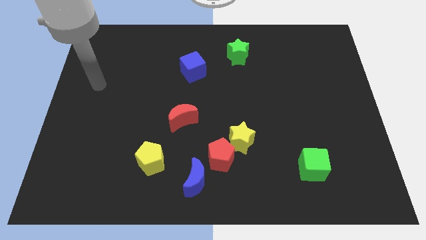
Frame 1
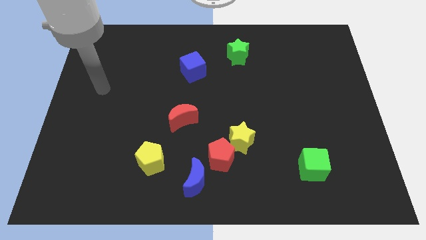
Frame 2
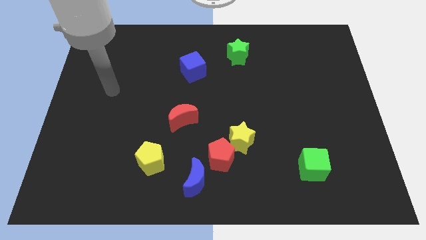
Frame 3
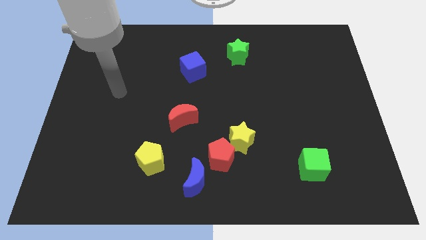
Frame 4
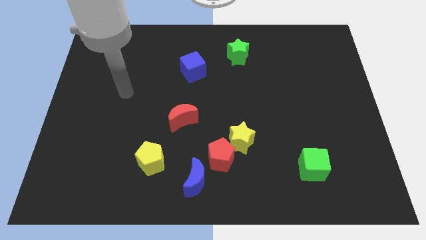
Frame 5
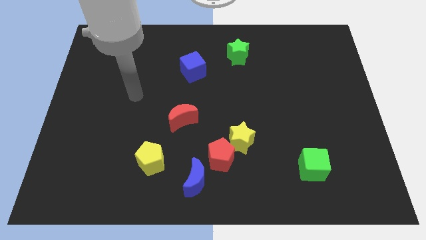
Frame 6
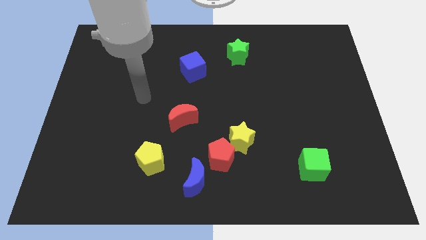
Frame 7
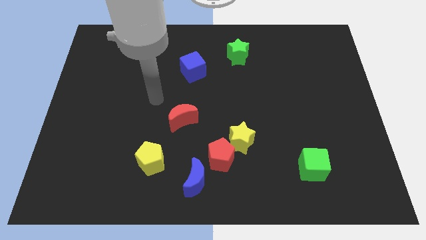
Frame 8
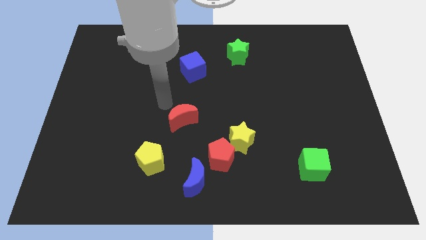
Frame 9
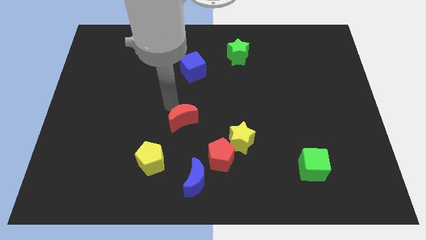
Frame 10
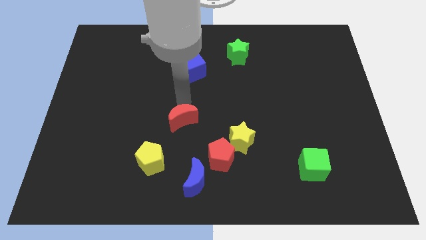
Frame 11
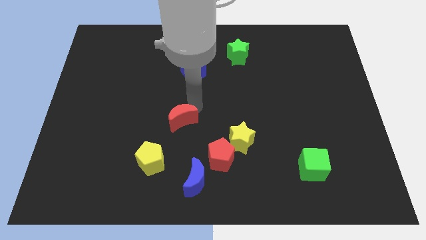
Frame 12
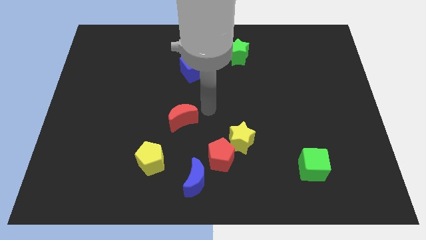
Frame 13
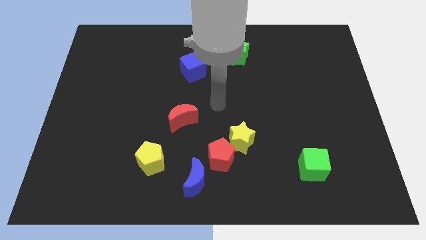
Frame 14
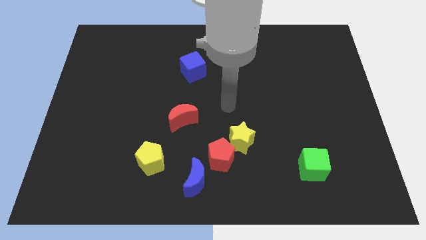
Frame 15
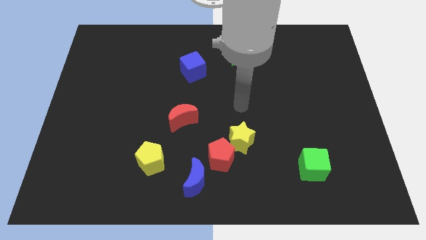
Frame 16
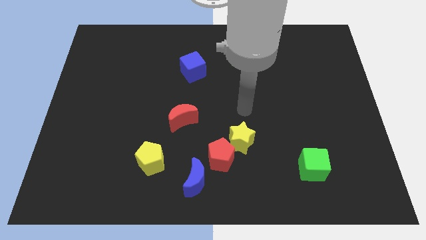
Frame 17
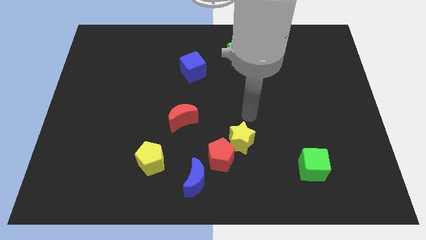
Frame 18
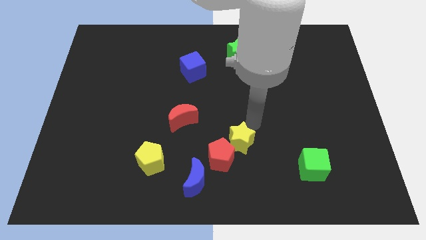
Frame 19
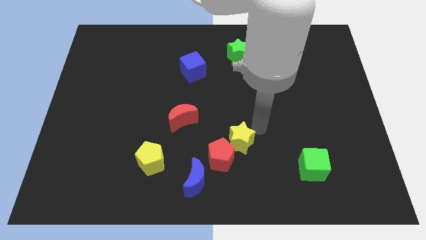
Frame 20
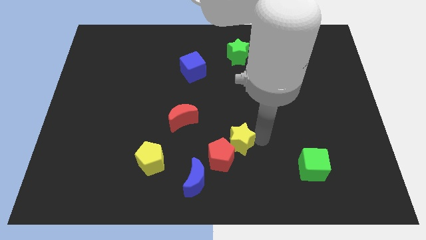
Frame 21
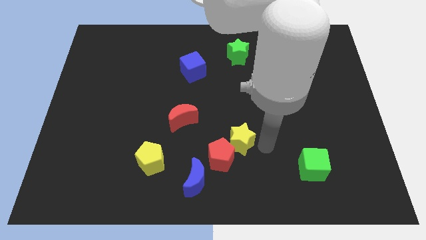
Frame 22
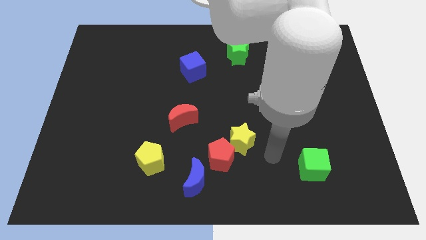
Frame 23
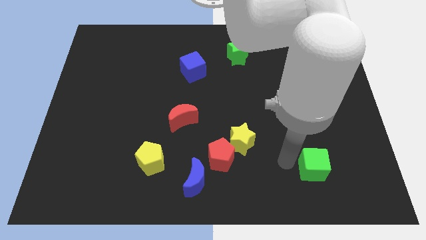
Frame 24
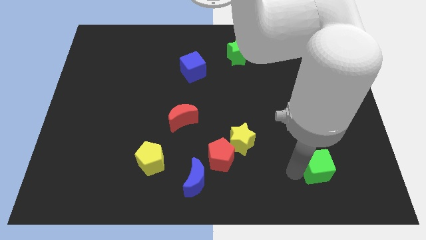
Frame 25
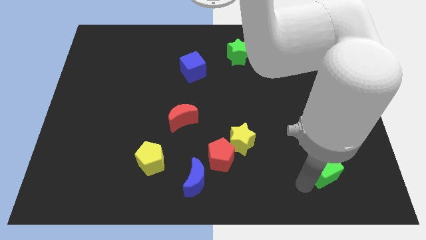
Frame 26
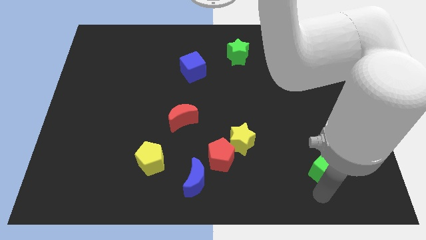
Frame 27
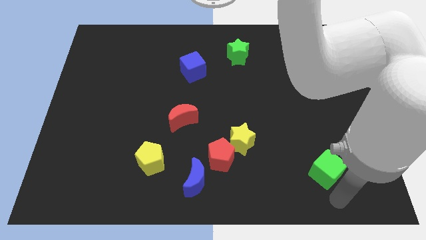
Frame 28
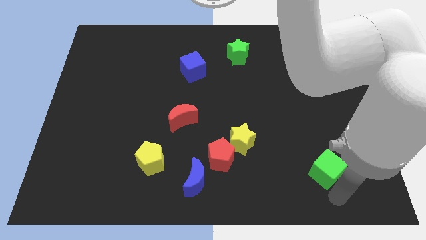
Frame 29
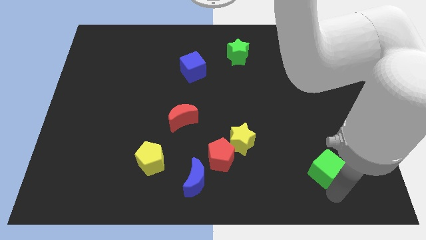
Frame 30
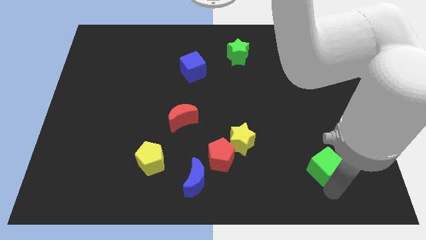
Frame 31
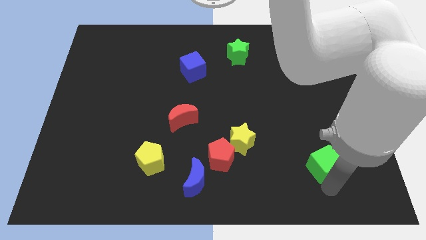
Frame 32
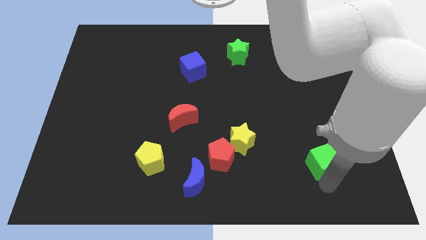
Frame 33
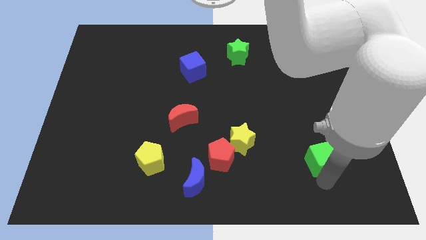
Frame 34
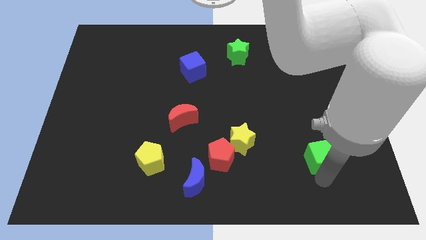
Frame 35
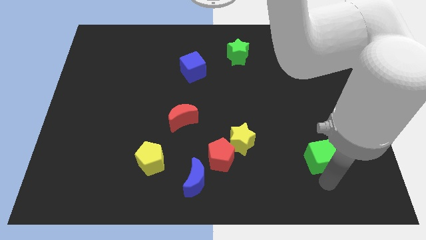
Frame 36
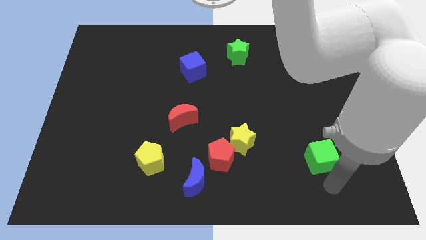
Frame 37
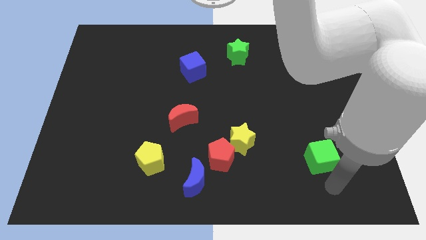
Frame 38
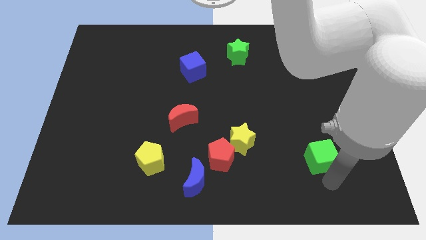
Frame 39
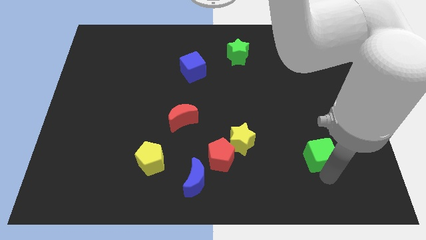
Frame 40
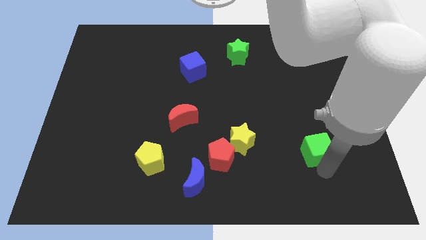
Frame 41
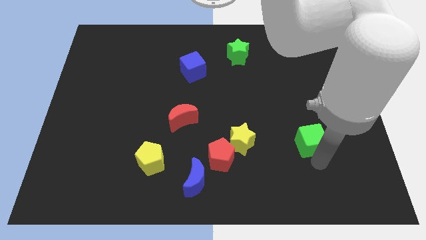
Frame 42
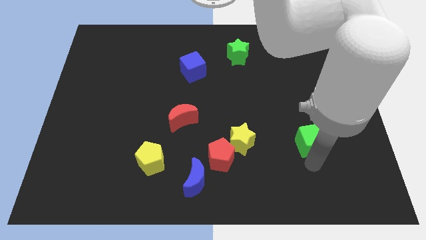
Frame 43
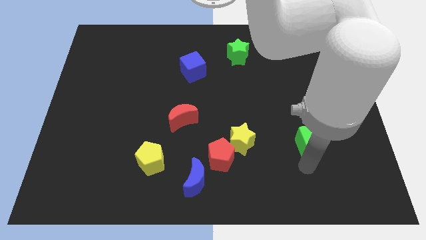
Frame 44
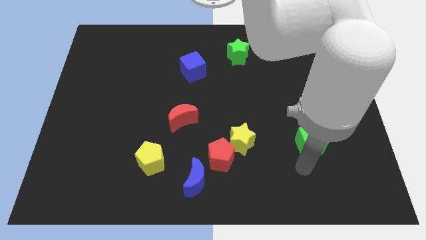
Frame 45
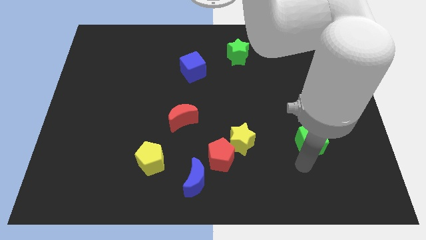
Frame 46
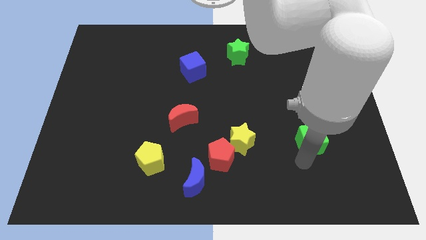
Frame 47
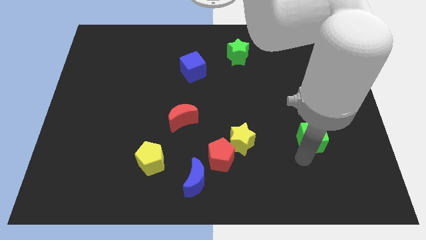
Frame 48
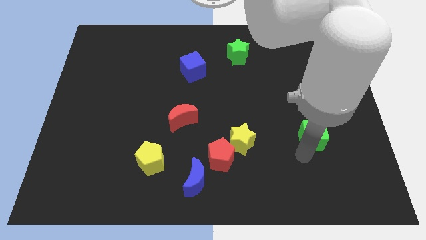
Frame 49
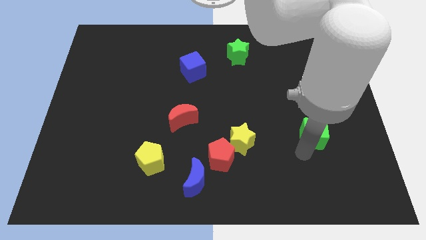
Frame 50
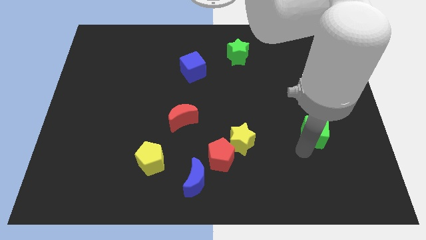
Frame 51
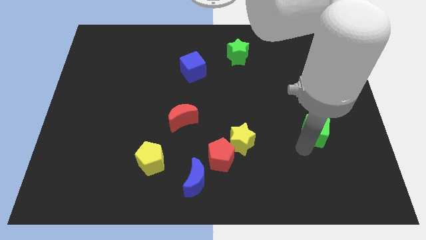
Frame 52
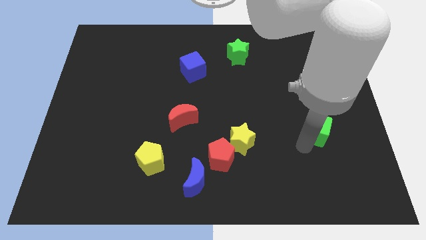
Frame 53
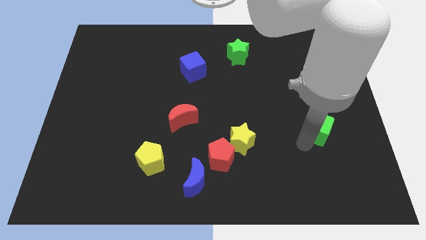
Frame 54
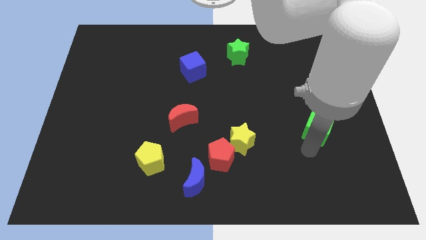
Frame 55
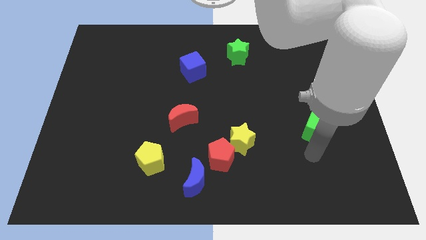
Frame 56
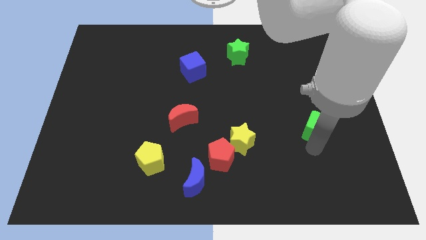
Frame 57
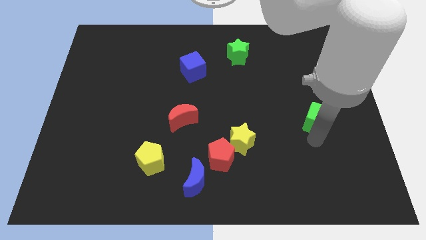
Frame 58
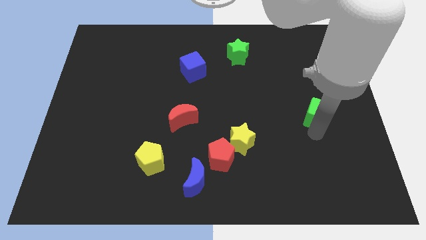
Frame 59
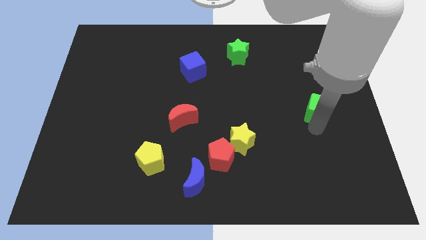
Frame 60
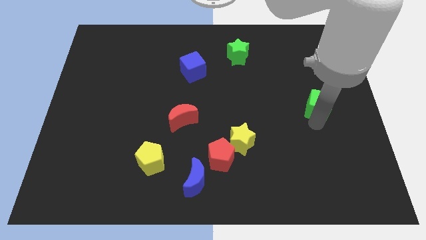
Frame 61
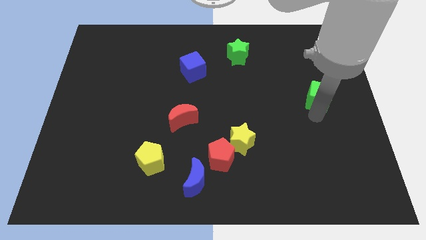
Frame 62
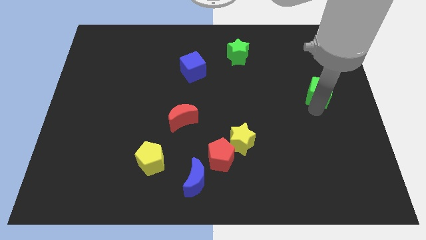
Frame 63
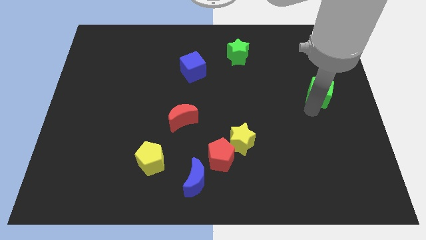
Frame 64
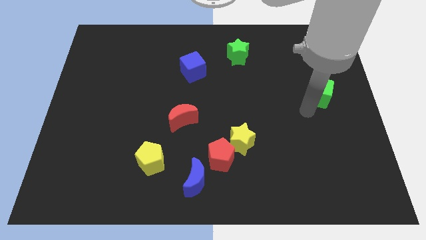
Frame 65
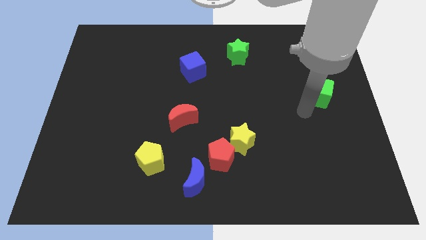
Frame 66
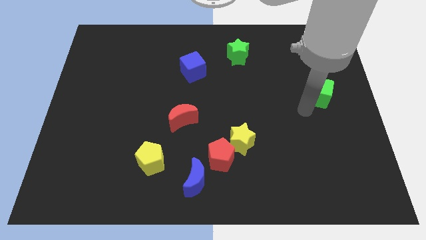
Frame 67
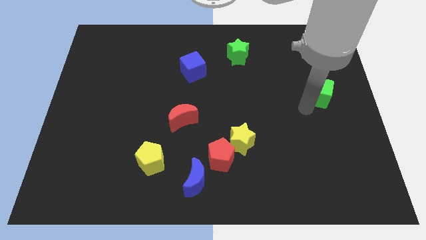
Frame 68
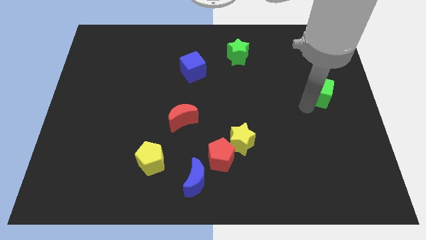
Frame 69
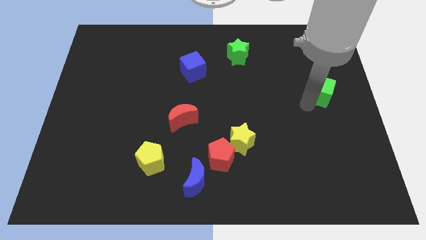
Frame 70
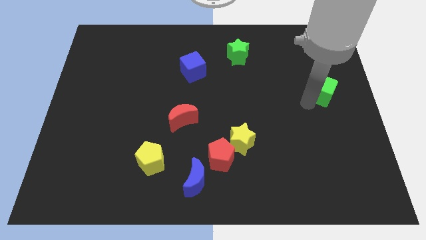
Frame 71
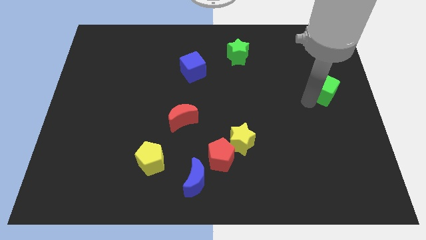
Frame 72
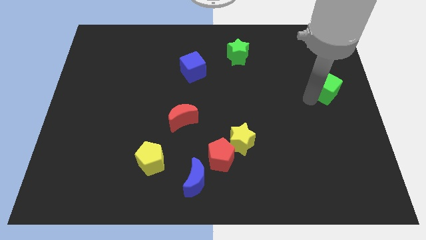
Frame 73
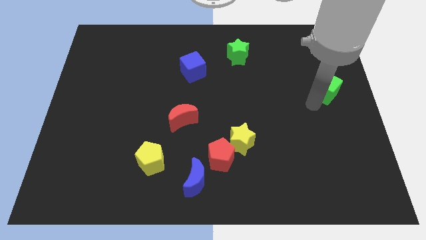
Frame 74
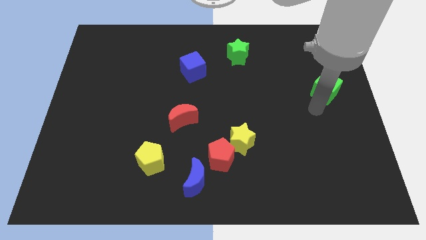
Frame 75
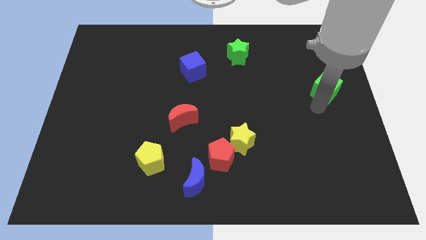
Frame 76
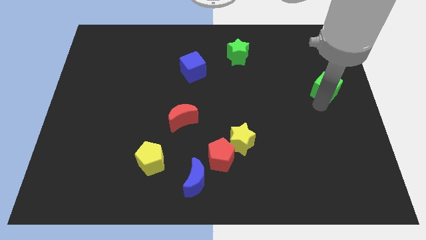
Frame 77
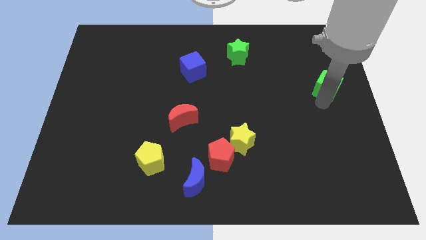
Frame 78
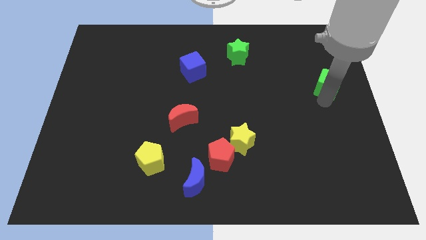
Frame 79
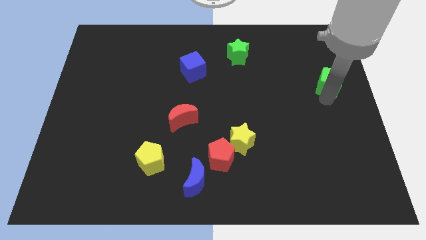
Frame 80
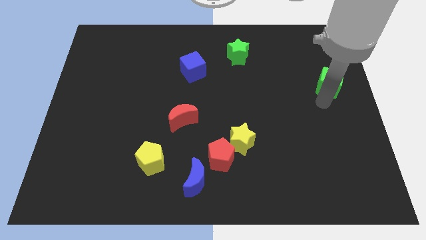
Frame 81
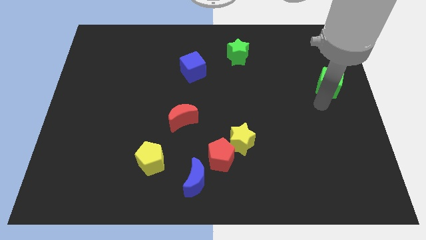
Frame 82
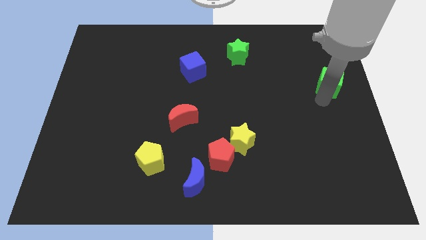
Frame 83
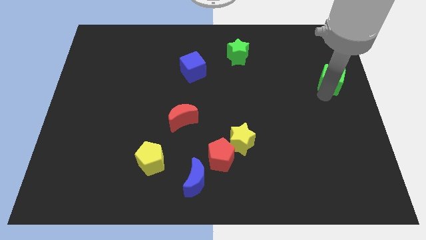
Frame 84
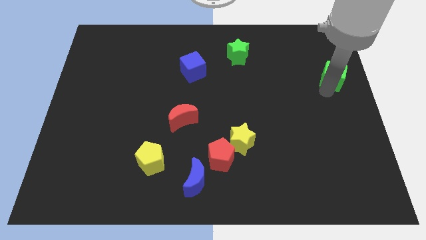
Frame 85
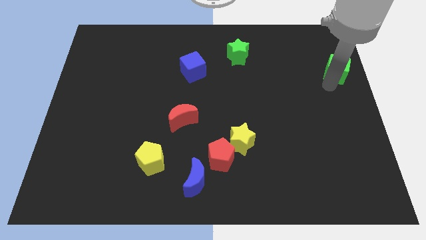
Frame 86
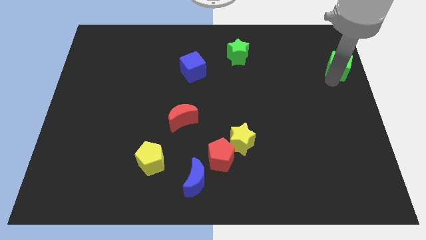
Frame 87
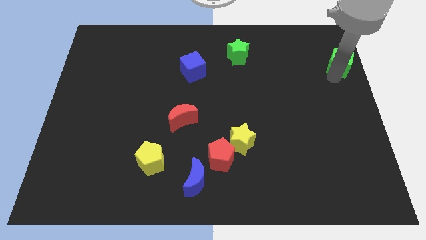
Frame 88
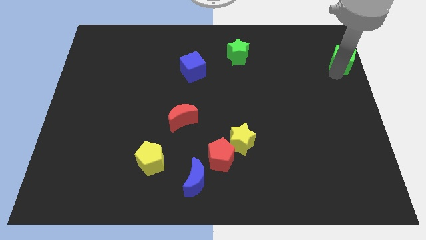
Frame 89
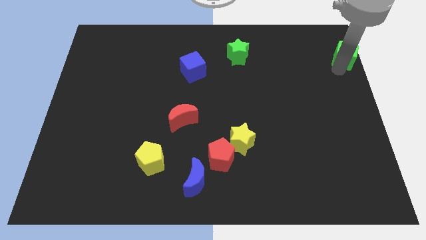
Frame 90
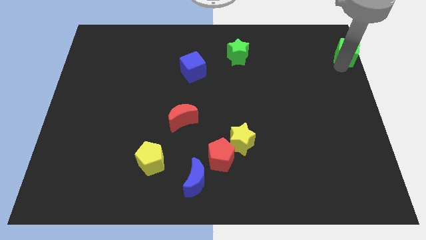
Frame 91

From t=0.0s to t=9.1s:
put the green cube to the upper right corner
